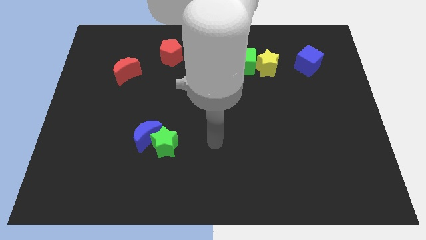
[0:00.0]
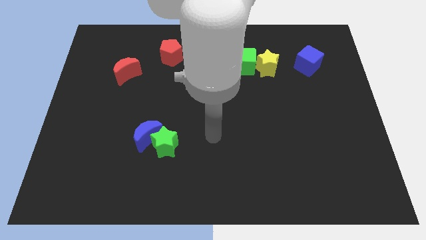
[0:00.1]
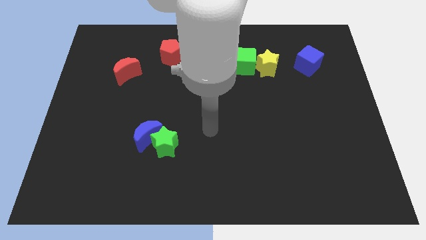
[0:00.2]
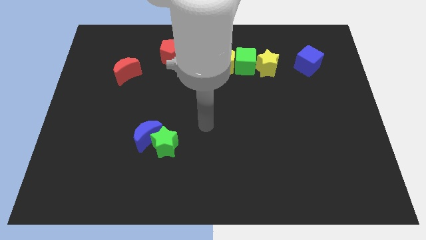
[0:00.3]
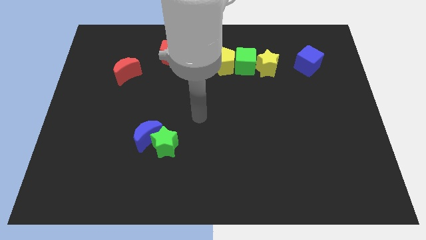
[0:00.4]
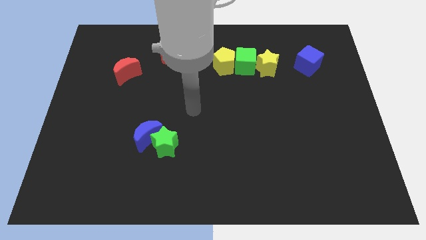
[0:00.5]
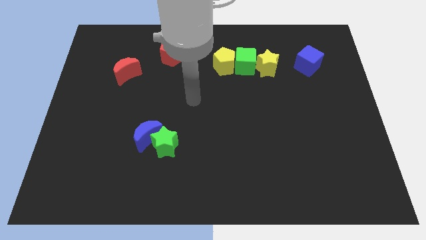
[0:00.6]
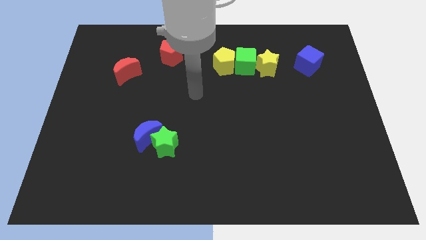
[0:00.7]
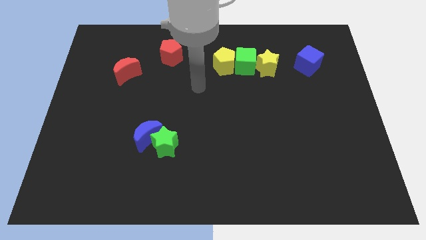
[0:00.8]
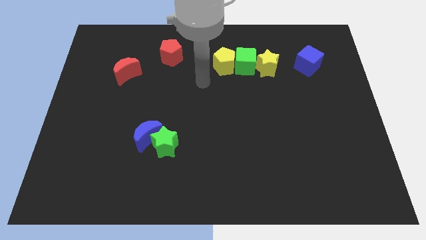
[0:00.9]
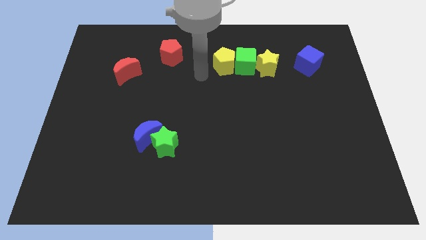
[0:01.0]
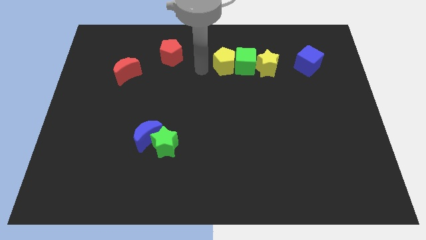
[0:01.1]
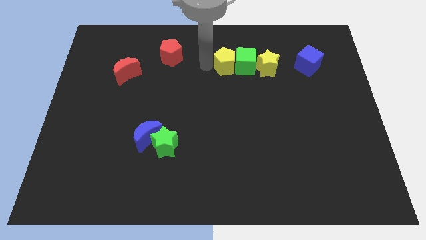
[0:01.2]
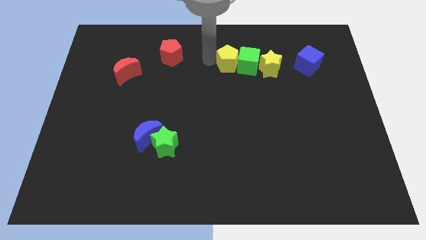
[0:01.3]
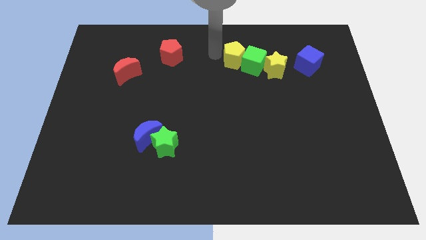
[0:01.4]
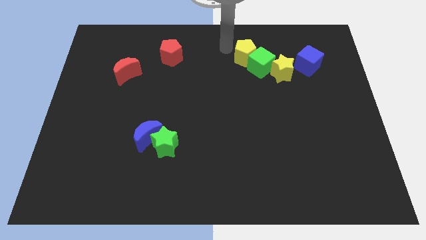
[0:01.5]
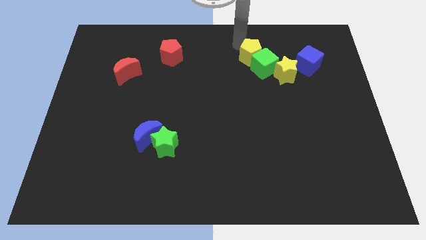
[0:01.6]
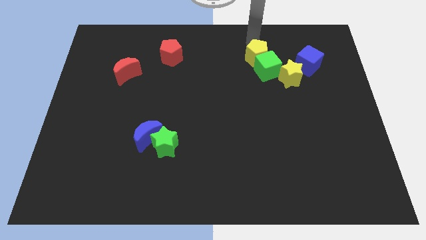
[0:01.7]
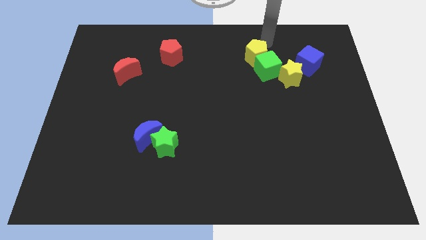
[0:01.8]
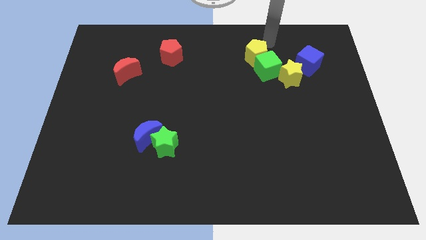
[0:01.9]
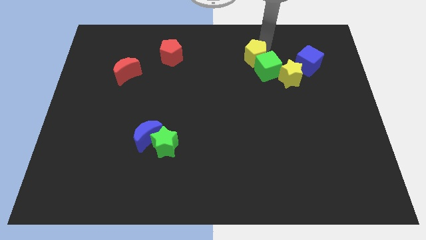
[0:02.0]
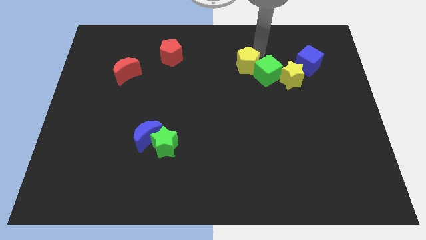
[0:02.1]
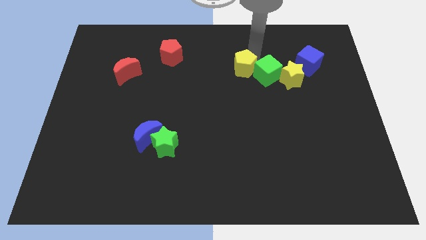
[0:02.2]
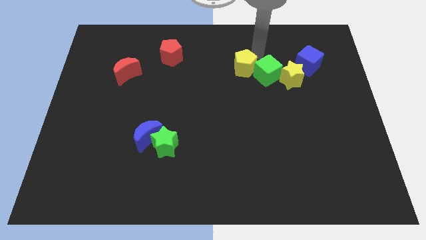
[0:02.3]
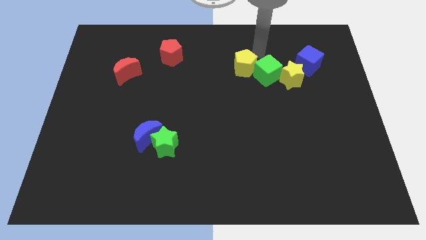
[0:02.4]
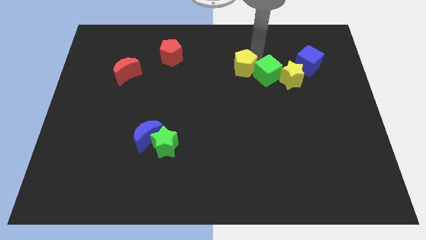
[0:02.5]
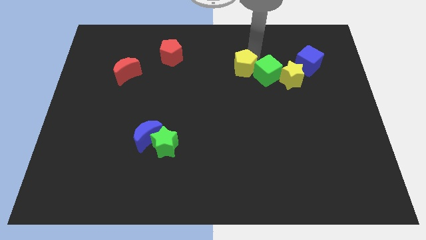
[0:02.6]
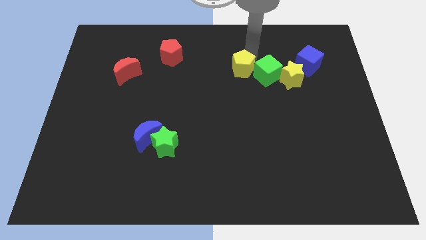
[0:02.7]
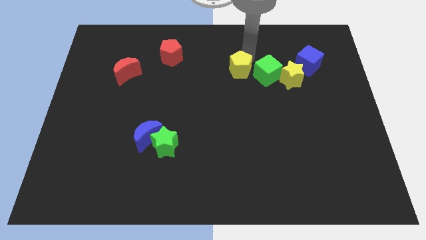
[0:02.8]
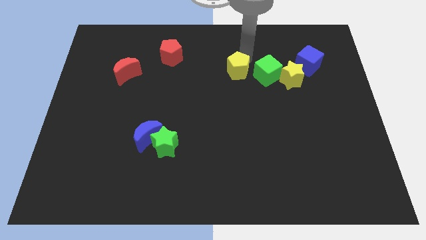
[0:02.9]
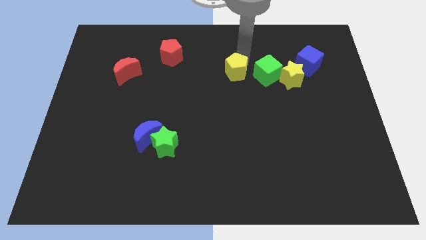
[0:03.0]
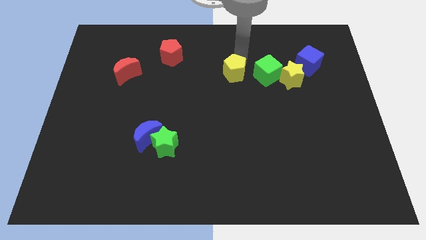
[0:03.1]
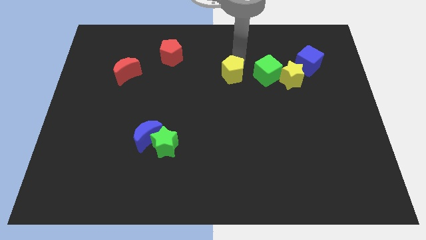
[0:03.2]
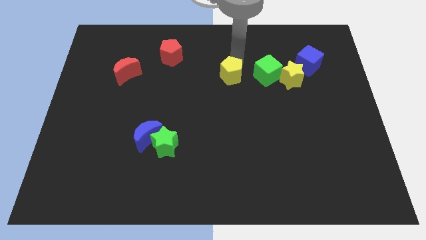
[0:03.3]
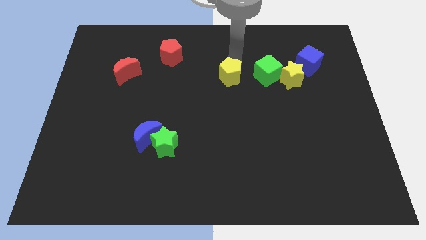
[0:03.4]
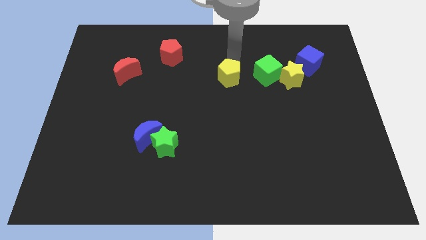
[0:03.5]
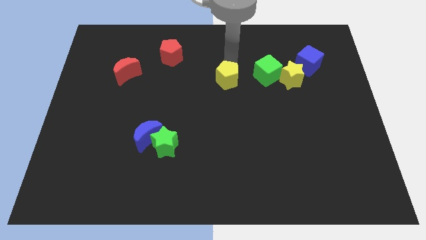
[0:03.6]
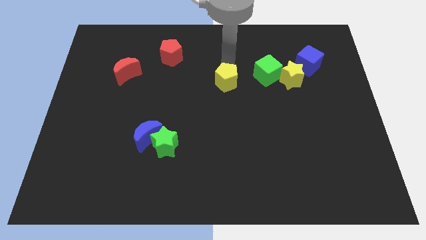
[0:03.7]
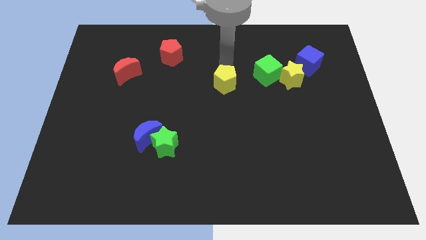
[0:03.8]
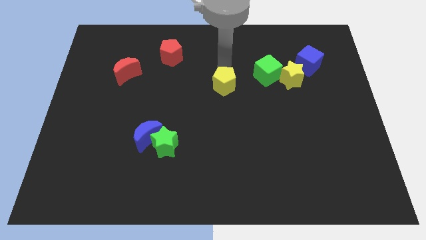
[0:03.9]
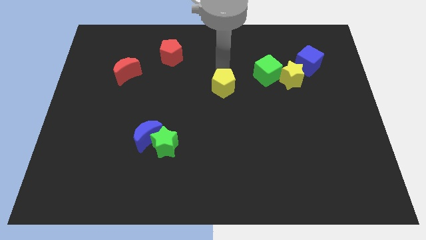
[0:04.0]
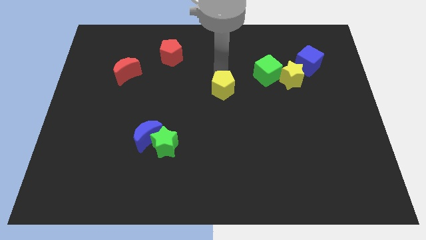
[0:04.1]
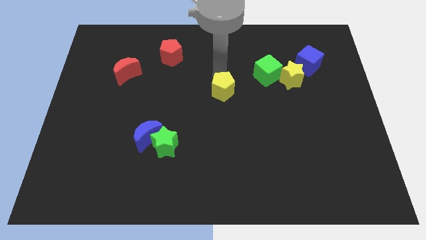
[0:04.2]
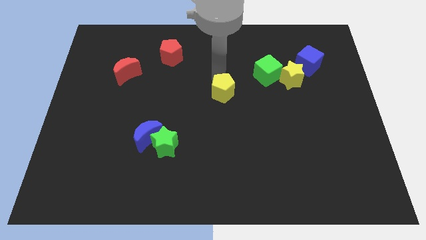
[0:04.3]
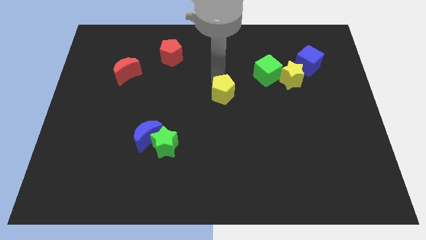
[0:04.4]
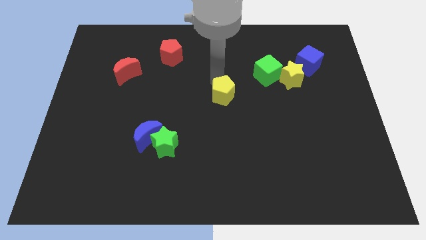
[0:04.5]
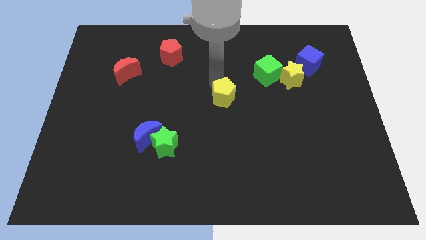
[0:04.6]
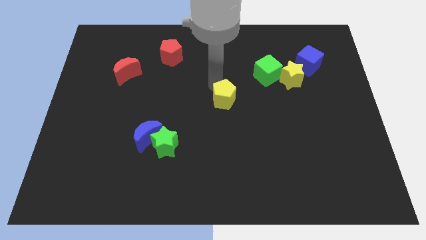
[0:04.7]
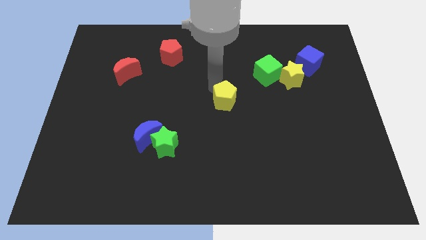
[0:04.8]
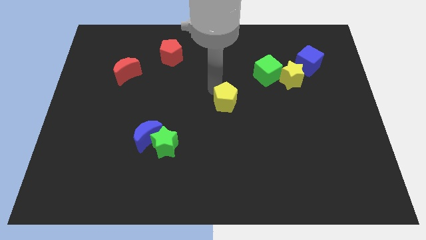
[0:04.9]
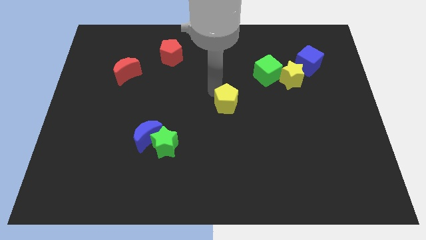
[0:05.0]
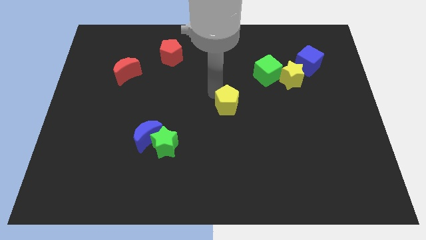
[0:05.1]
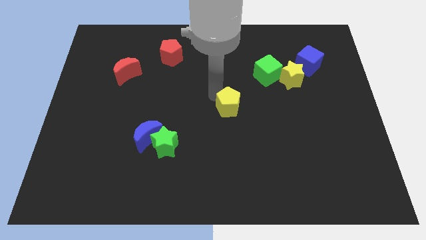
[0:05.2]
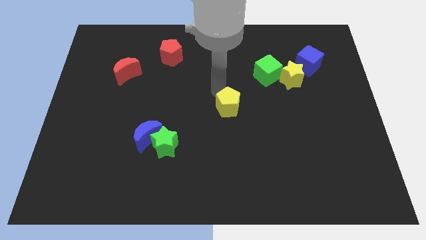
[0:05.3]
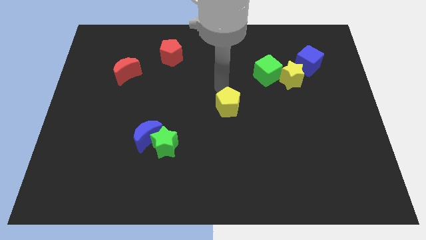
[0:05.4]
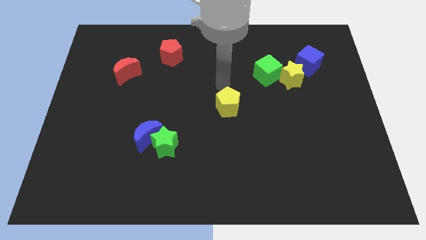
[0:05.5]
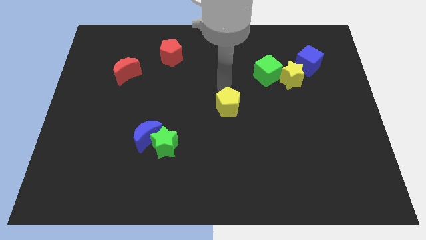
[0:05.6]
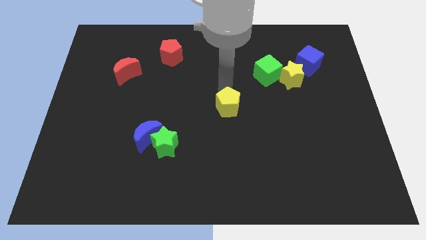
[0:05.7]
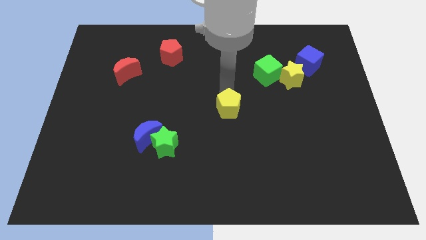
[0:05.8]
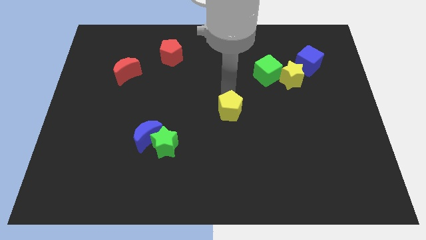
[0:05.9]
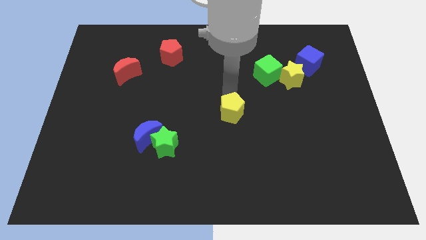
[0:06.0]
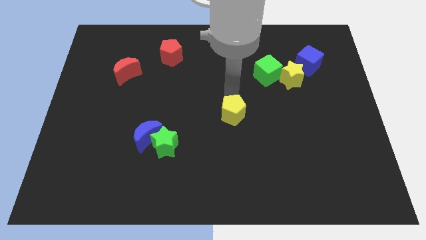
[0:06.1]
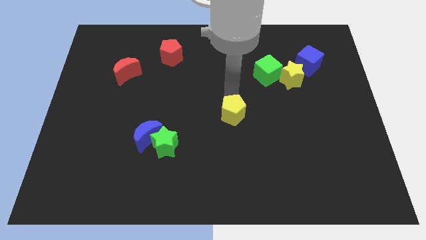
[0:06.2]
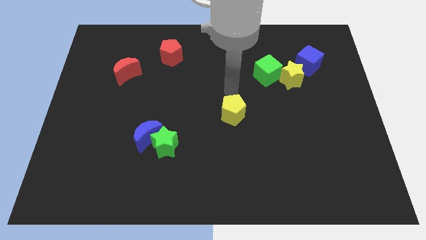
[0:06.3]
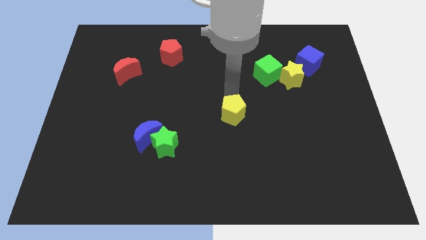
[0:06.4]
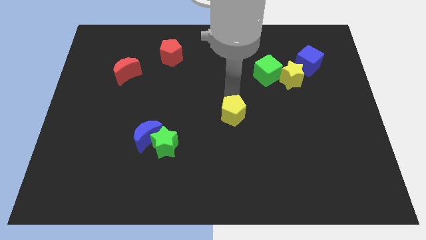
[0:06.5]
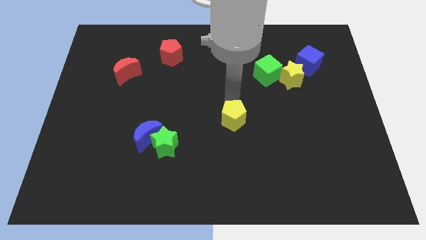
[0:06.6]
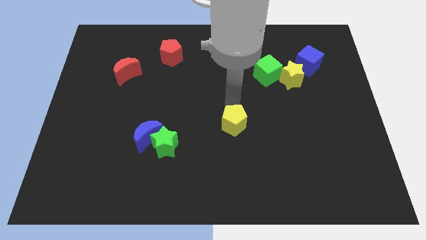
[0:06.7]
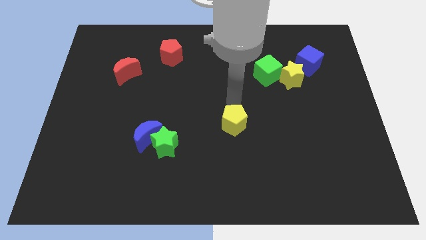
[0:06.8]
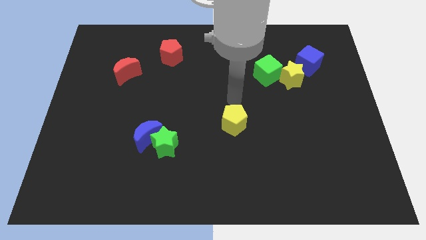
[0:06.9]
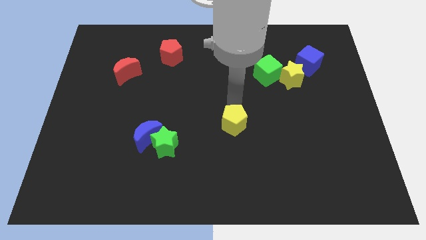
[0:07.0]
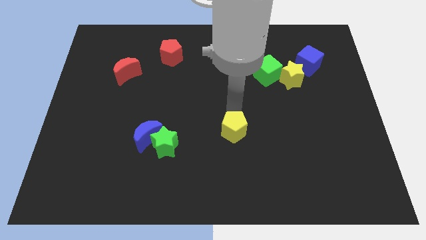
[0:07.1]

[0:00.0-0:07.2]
slide the yellow pentagon downwards

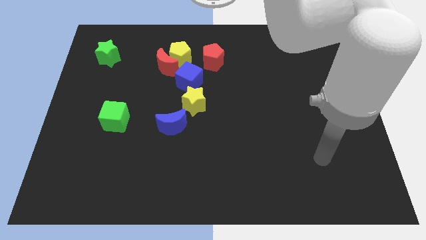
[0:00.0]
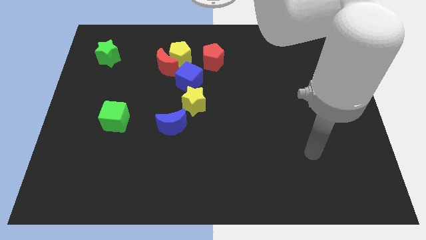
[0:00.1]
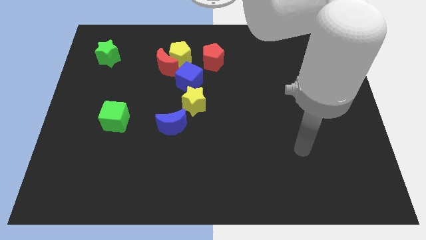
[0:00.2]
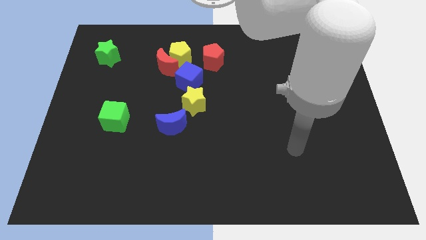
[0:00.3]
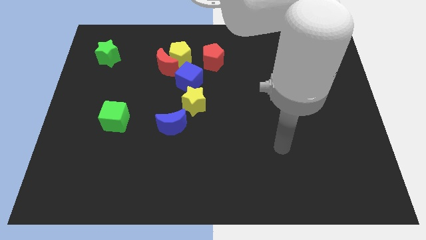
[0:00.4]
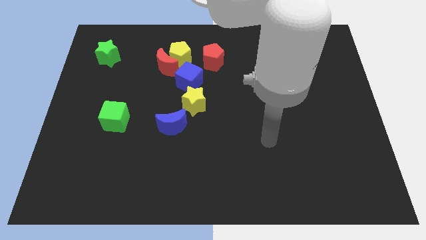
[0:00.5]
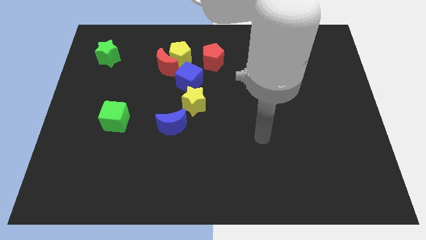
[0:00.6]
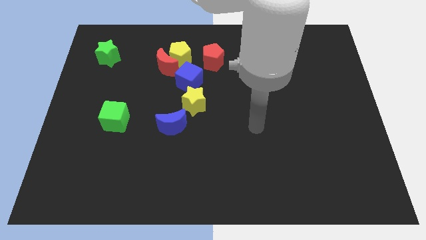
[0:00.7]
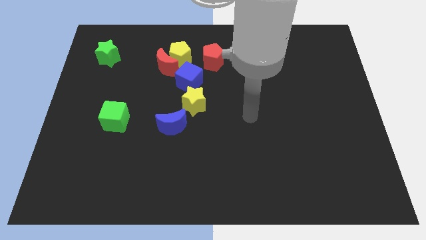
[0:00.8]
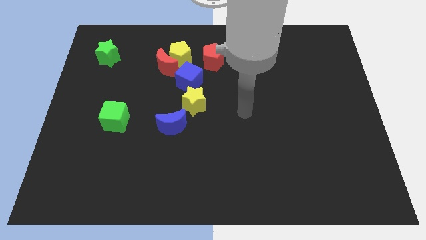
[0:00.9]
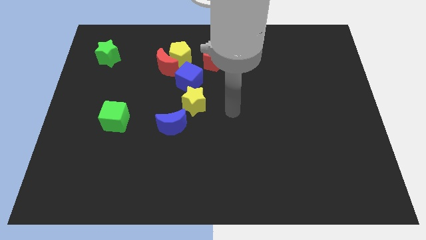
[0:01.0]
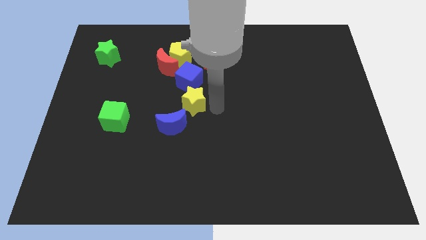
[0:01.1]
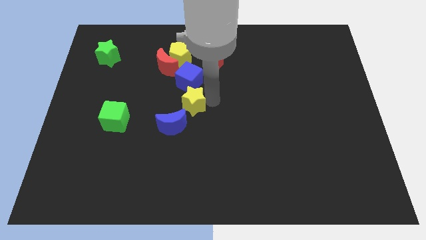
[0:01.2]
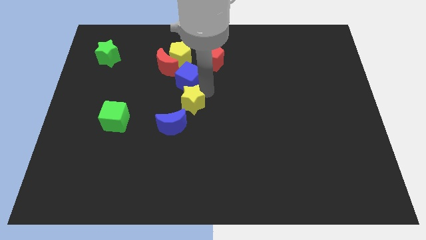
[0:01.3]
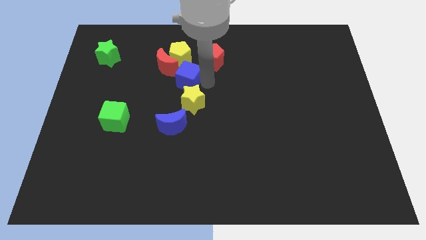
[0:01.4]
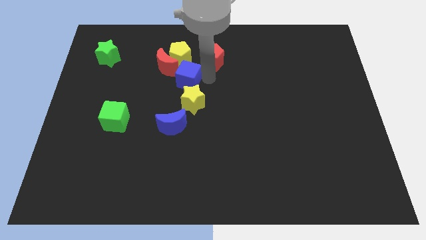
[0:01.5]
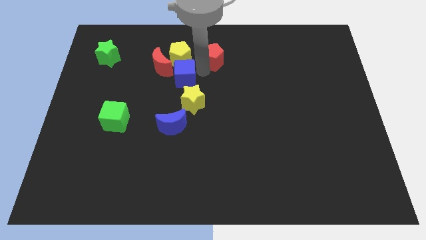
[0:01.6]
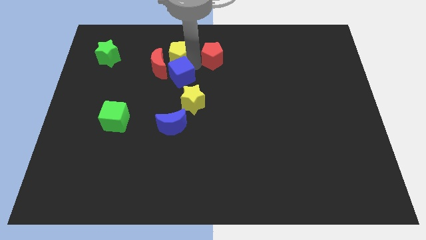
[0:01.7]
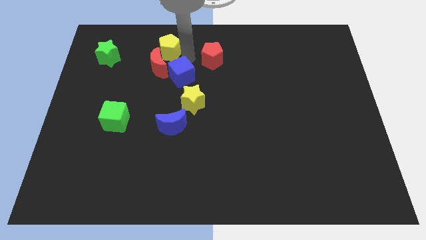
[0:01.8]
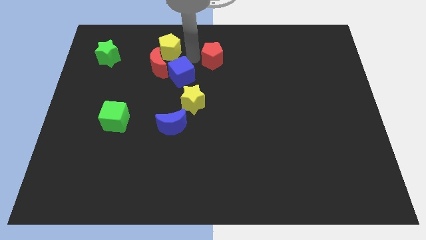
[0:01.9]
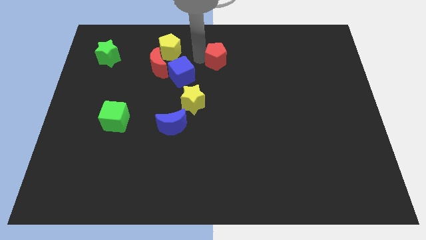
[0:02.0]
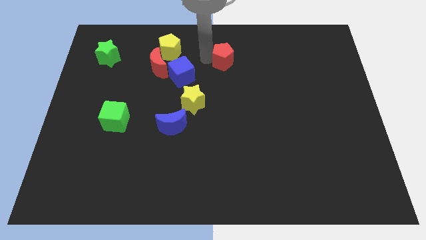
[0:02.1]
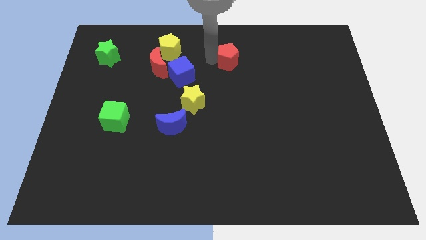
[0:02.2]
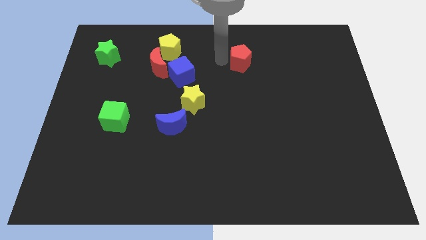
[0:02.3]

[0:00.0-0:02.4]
slightly push the red pentagon right
